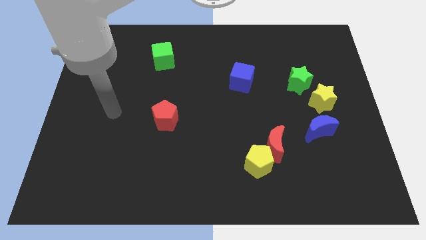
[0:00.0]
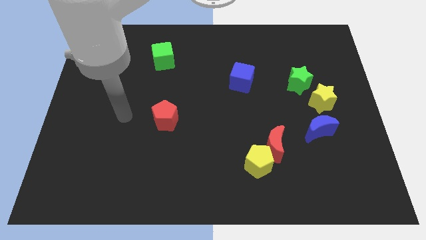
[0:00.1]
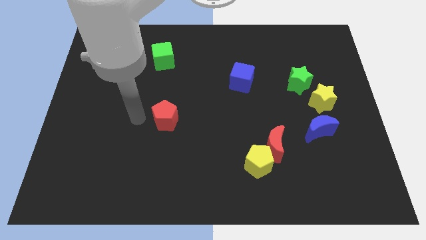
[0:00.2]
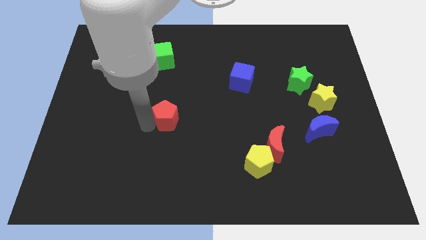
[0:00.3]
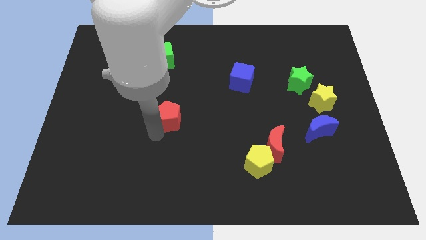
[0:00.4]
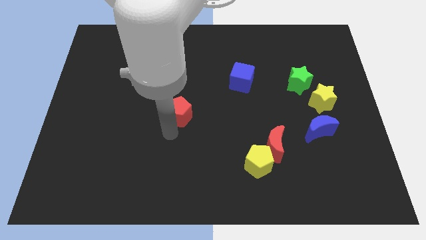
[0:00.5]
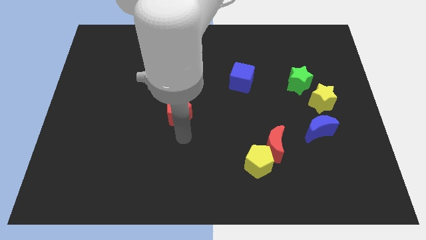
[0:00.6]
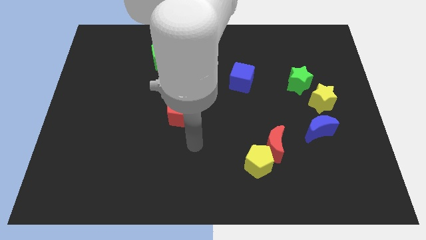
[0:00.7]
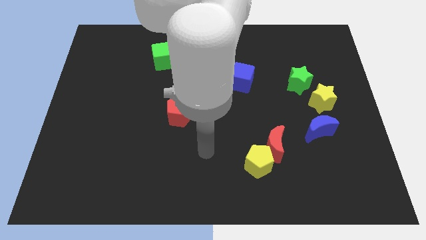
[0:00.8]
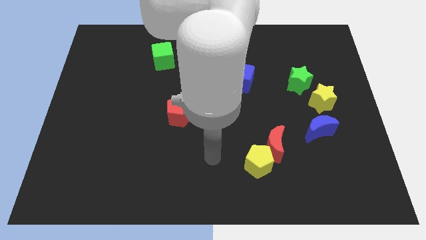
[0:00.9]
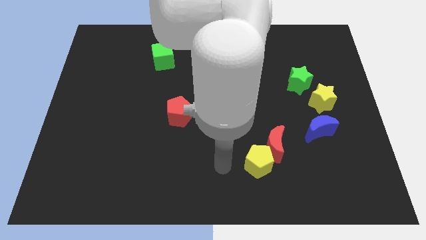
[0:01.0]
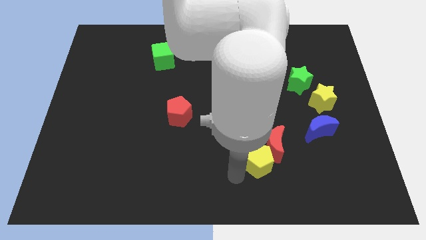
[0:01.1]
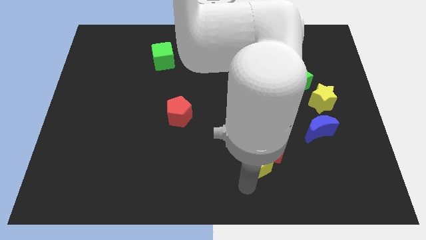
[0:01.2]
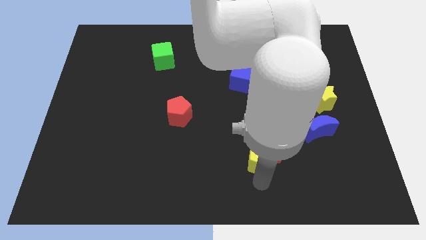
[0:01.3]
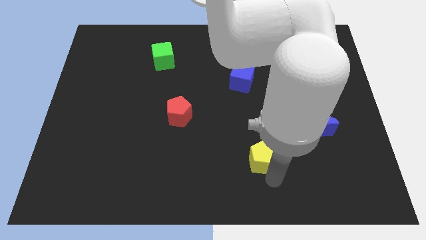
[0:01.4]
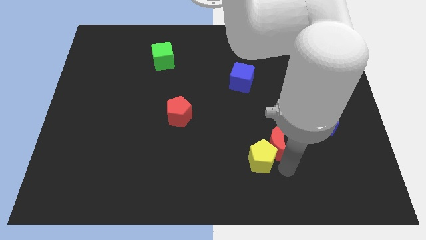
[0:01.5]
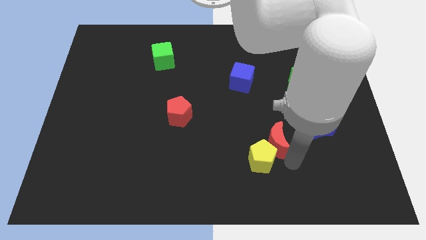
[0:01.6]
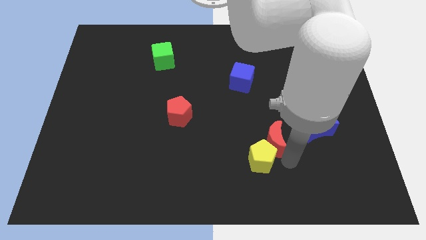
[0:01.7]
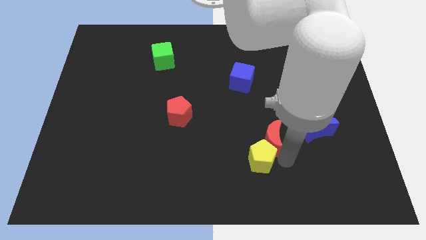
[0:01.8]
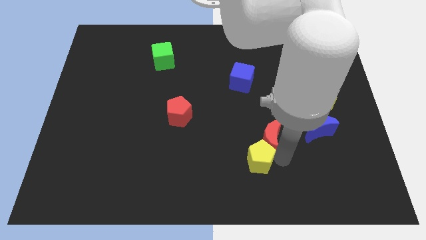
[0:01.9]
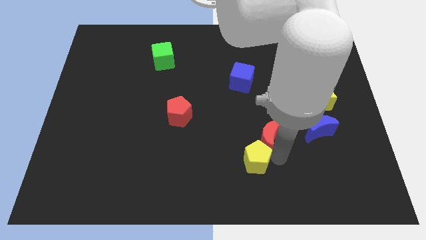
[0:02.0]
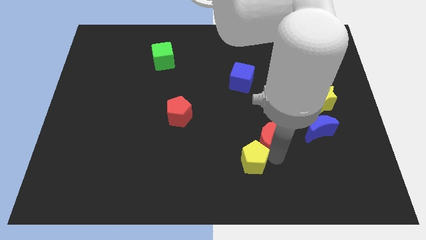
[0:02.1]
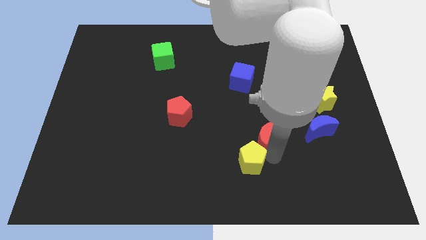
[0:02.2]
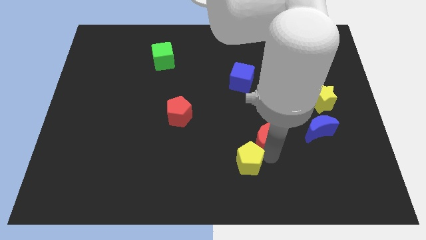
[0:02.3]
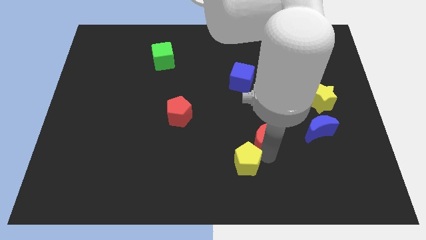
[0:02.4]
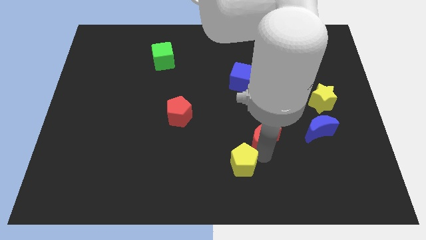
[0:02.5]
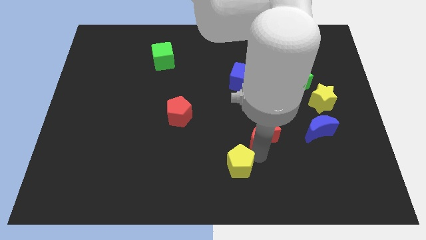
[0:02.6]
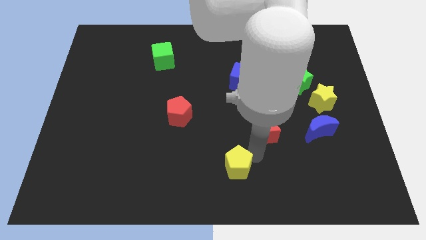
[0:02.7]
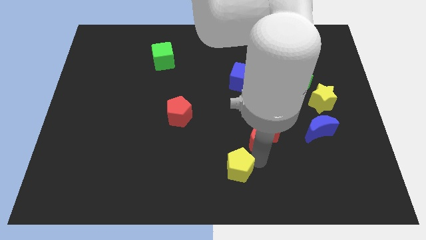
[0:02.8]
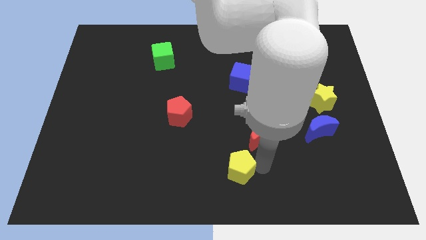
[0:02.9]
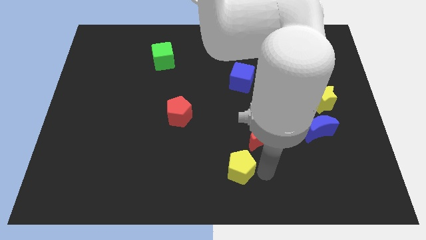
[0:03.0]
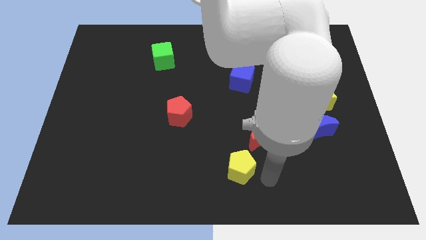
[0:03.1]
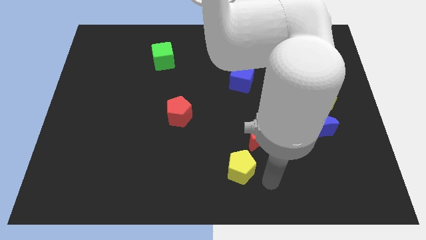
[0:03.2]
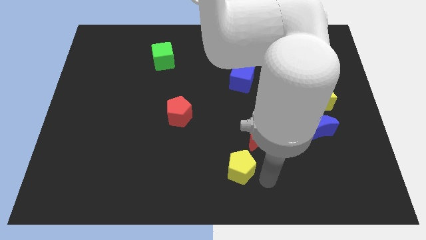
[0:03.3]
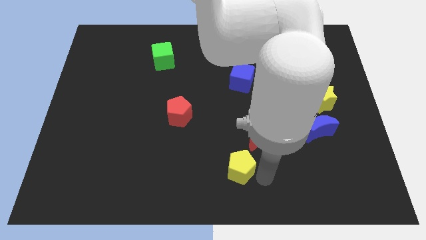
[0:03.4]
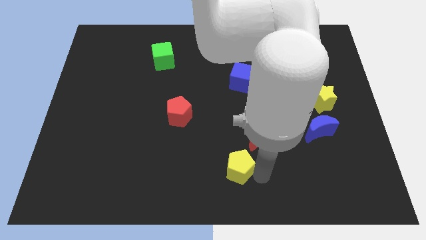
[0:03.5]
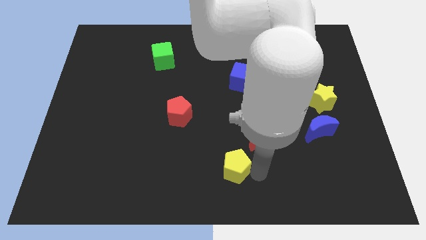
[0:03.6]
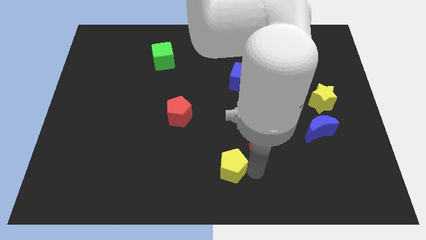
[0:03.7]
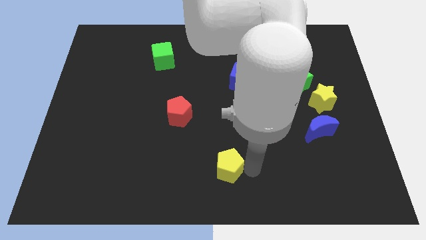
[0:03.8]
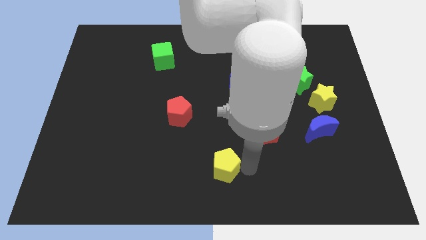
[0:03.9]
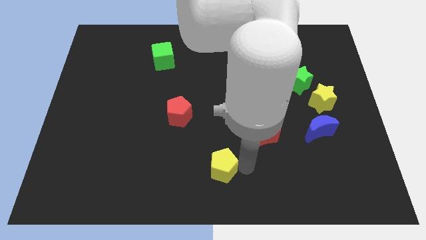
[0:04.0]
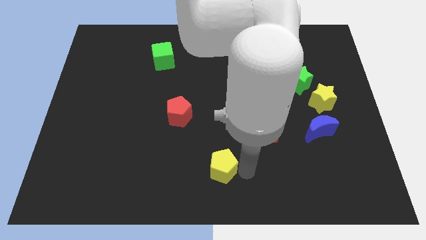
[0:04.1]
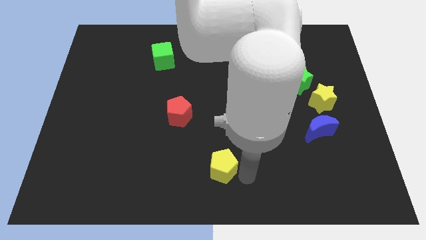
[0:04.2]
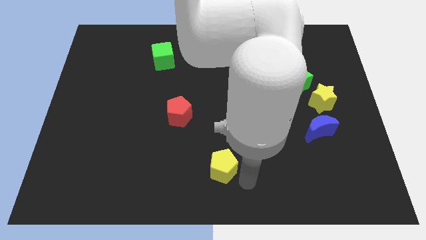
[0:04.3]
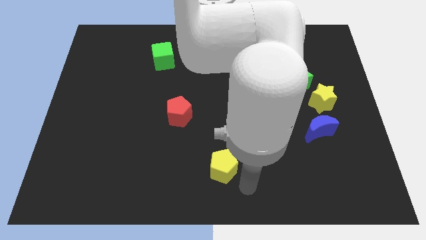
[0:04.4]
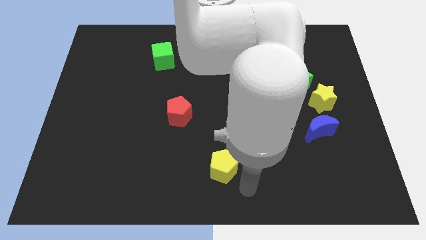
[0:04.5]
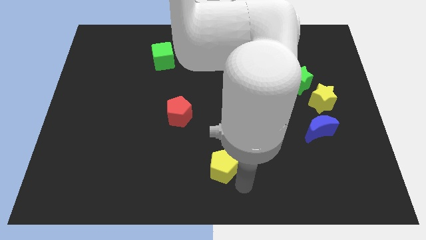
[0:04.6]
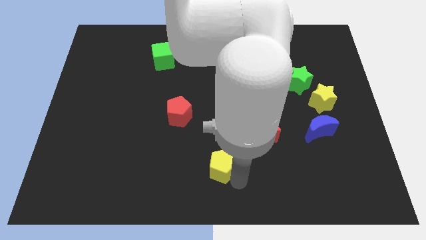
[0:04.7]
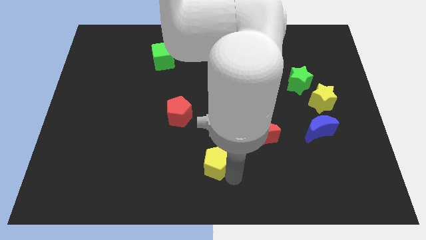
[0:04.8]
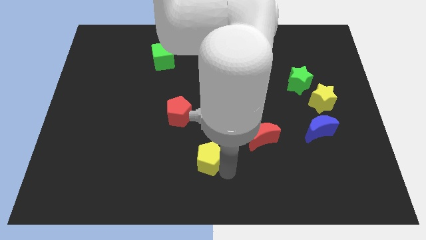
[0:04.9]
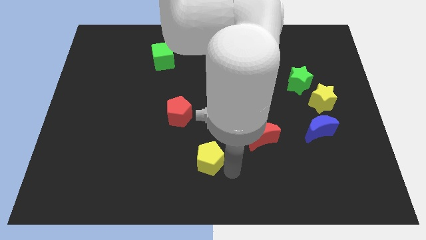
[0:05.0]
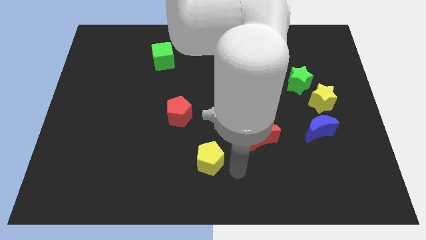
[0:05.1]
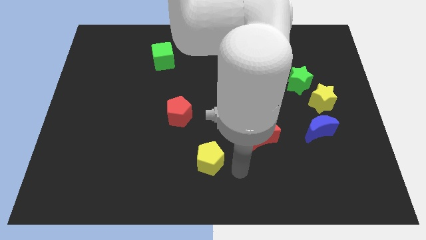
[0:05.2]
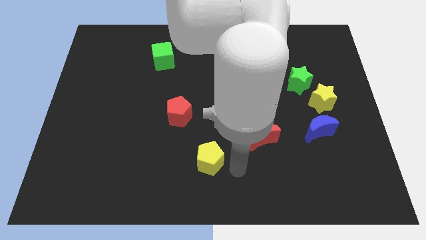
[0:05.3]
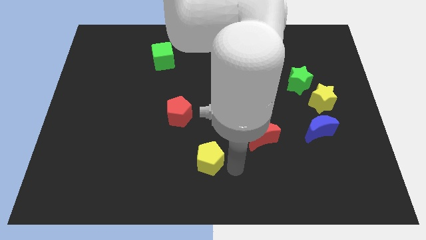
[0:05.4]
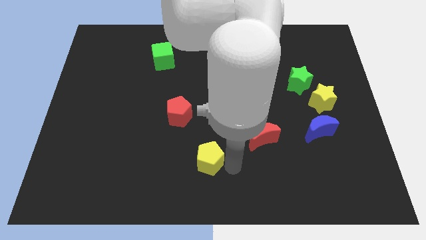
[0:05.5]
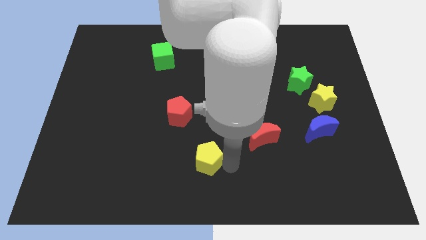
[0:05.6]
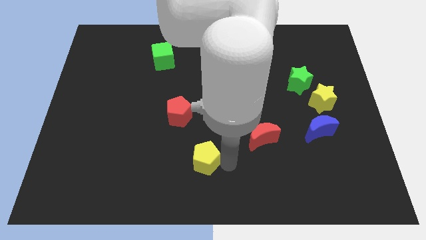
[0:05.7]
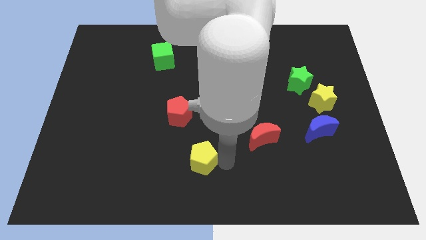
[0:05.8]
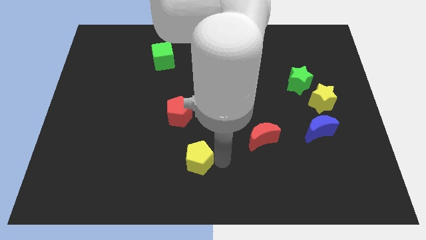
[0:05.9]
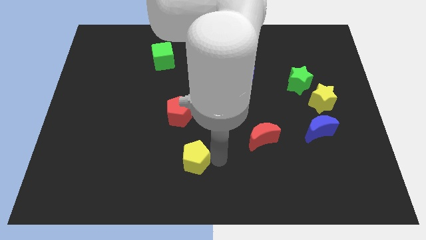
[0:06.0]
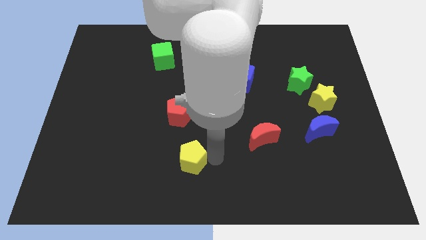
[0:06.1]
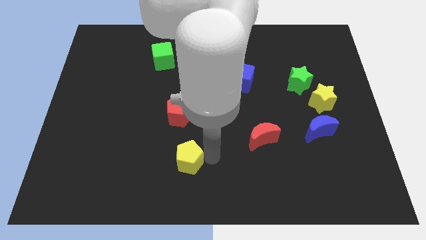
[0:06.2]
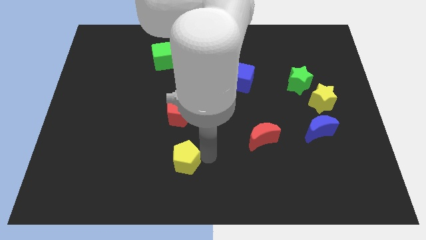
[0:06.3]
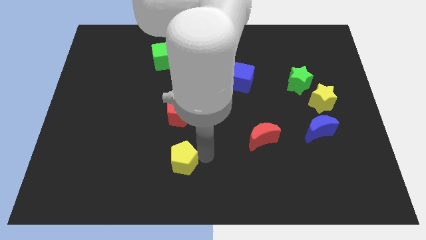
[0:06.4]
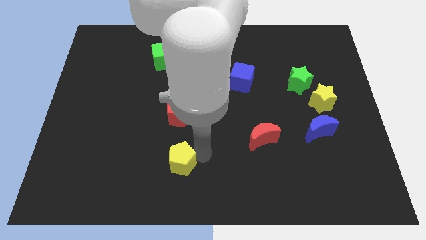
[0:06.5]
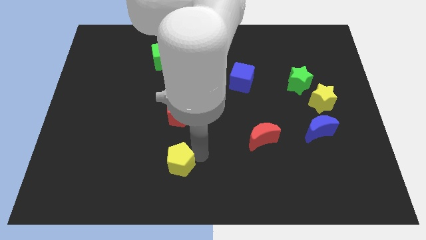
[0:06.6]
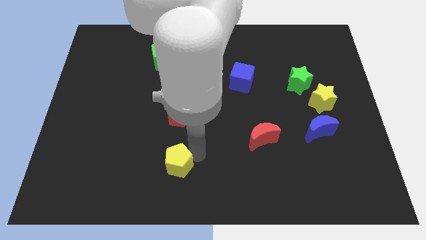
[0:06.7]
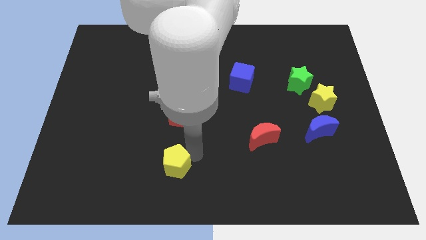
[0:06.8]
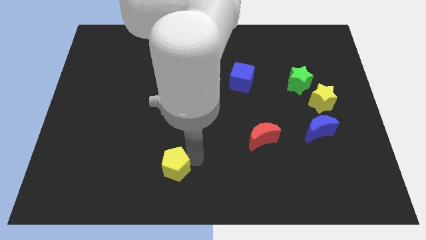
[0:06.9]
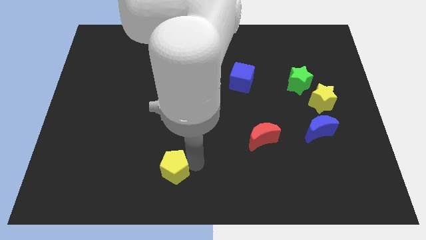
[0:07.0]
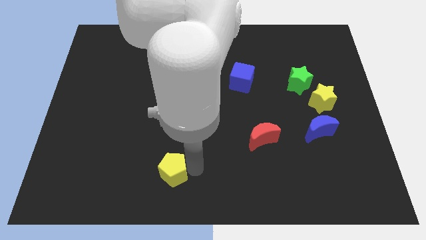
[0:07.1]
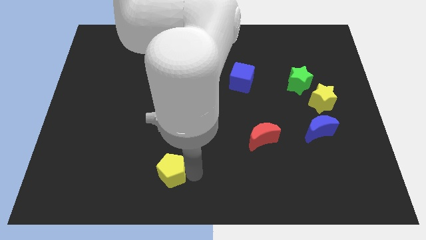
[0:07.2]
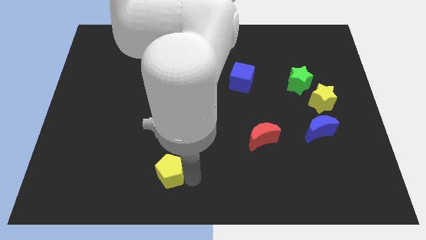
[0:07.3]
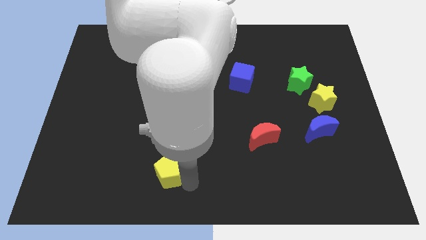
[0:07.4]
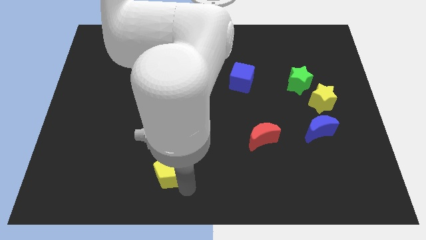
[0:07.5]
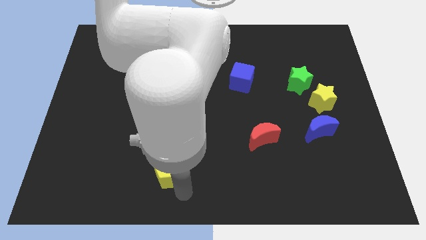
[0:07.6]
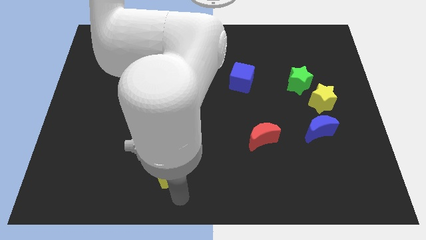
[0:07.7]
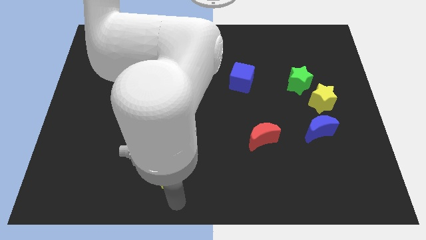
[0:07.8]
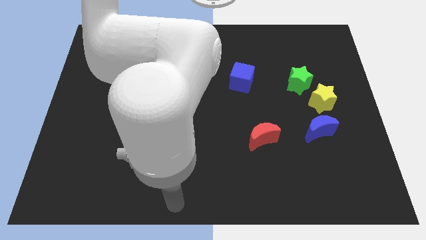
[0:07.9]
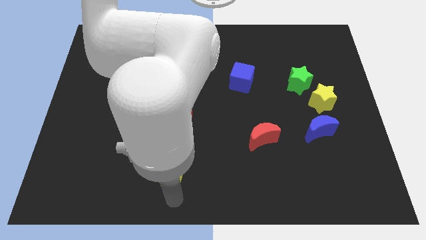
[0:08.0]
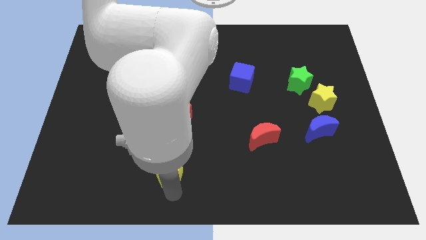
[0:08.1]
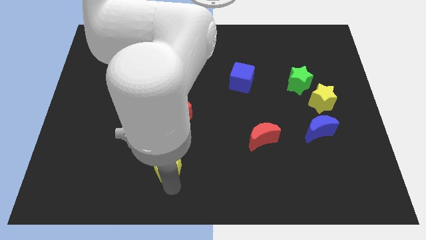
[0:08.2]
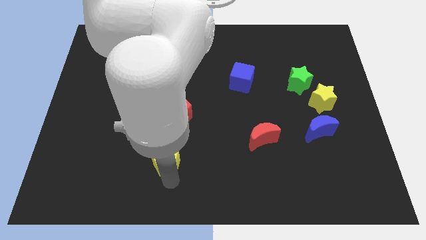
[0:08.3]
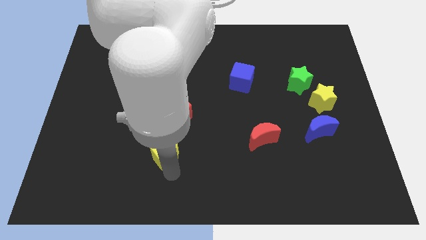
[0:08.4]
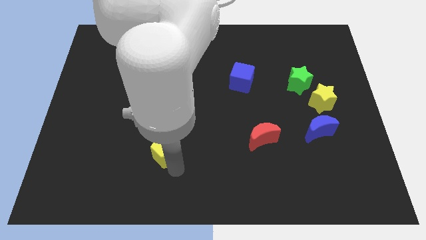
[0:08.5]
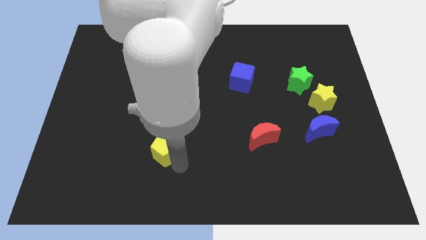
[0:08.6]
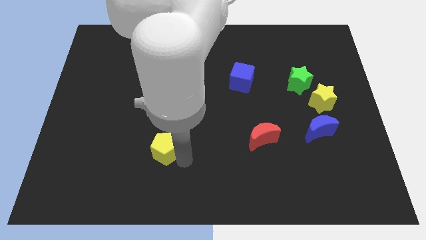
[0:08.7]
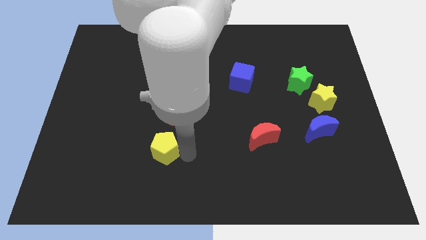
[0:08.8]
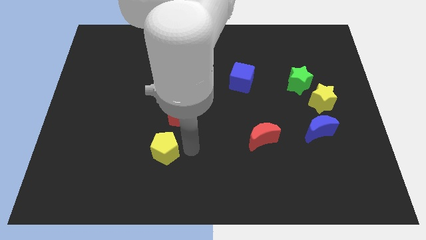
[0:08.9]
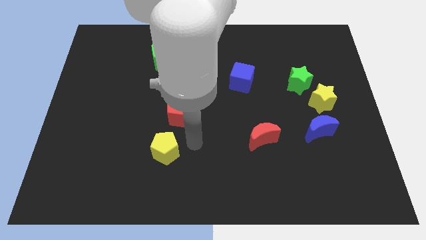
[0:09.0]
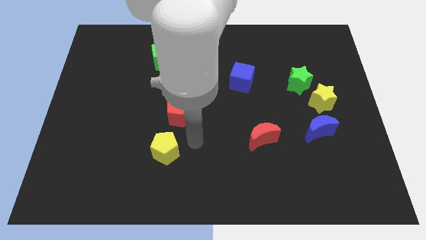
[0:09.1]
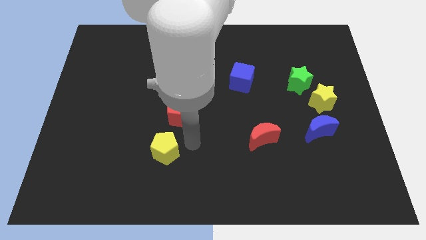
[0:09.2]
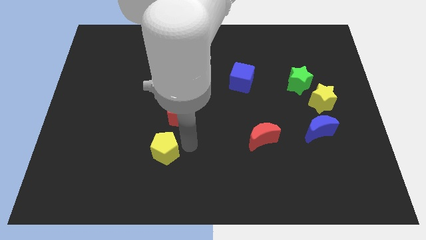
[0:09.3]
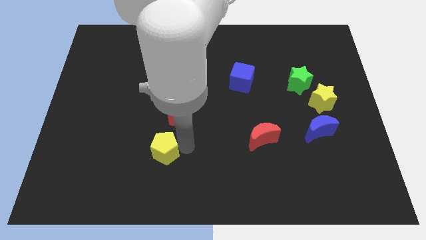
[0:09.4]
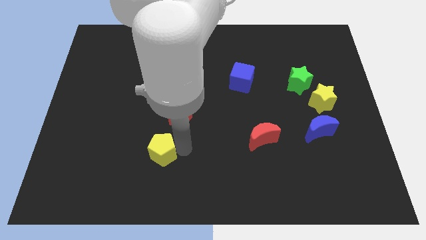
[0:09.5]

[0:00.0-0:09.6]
slide the yellow pentagon left
